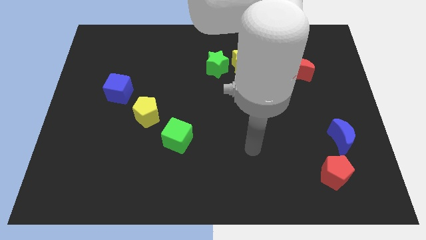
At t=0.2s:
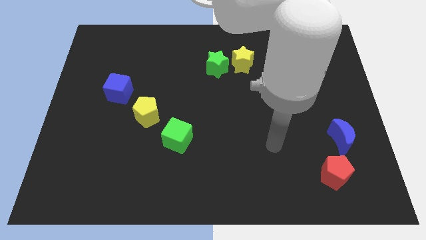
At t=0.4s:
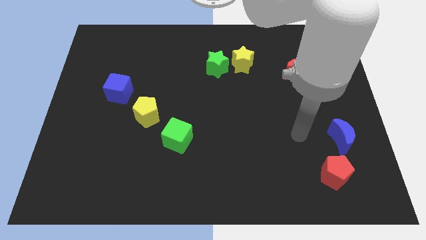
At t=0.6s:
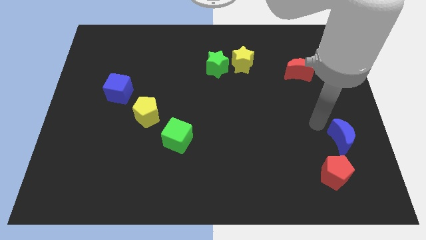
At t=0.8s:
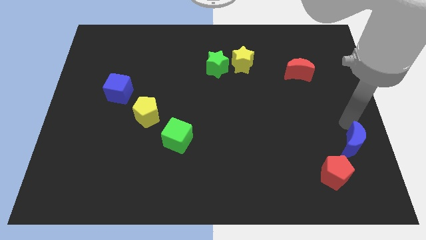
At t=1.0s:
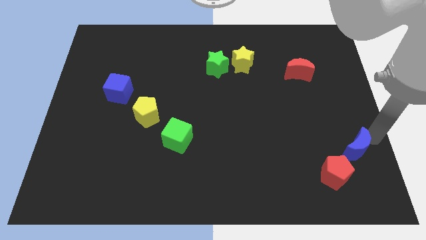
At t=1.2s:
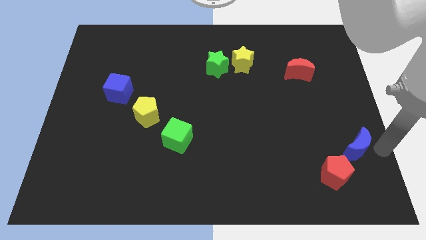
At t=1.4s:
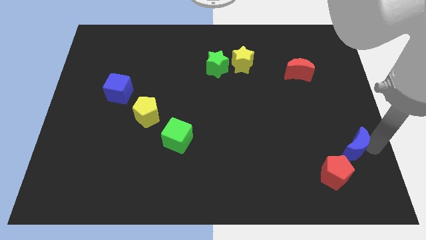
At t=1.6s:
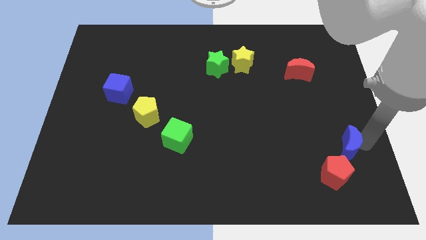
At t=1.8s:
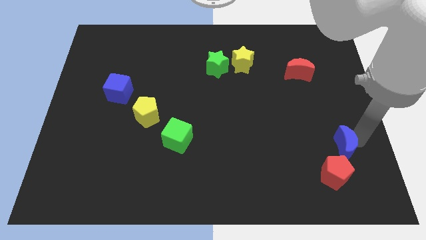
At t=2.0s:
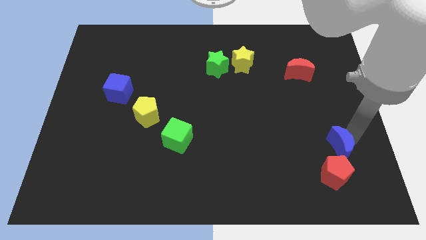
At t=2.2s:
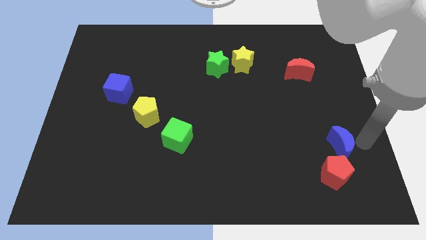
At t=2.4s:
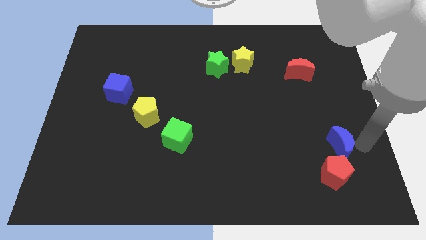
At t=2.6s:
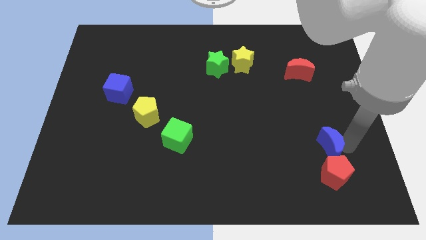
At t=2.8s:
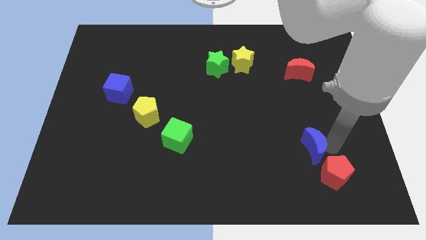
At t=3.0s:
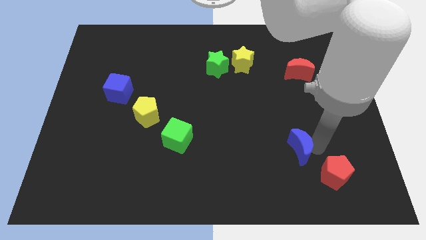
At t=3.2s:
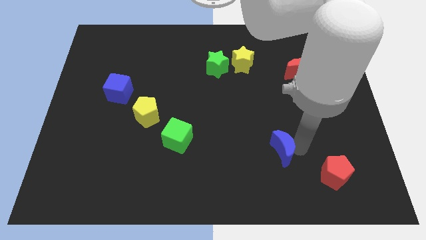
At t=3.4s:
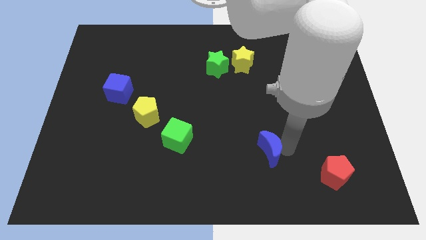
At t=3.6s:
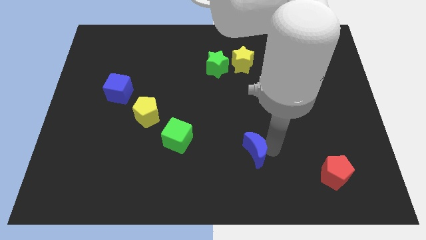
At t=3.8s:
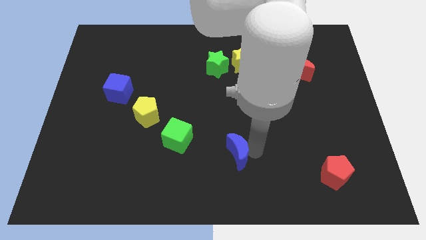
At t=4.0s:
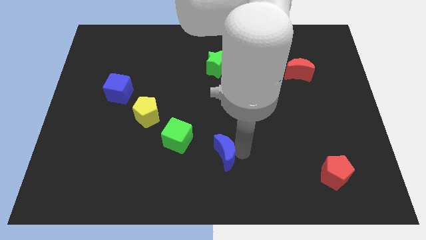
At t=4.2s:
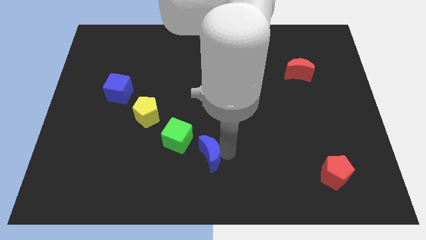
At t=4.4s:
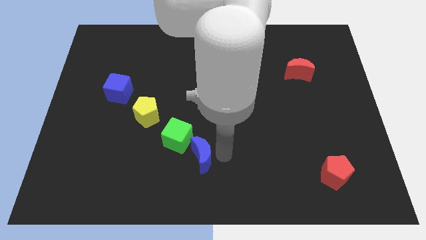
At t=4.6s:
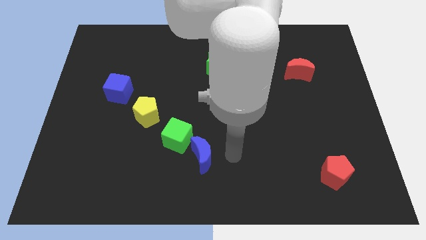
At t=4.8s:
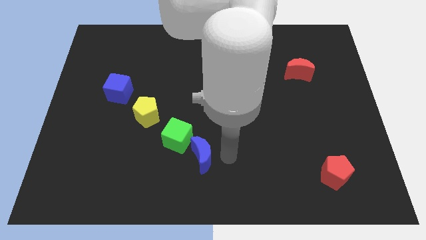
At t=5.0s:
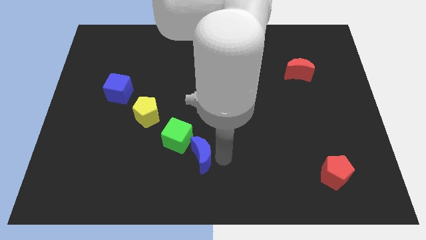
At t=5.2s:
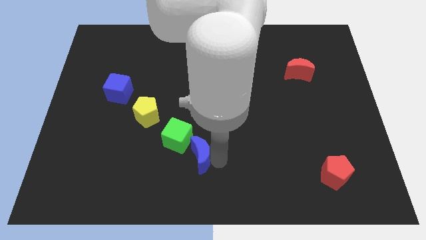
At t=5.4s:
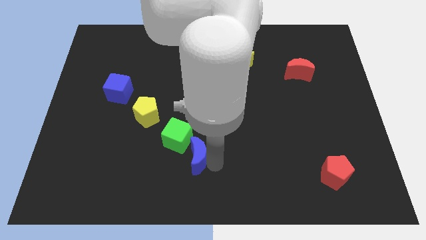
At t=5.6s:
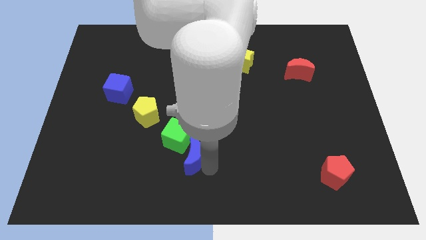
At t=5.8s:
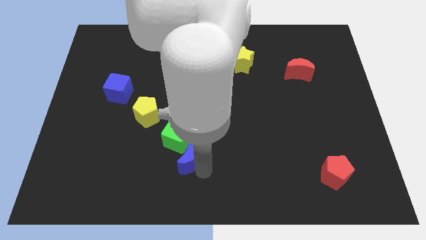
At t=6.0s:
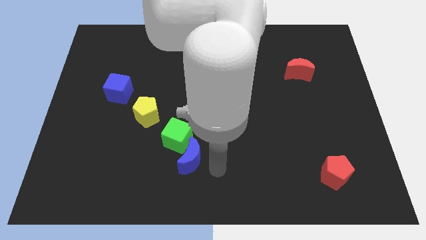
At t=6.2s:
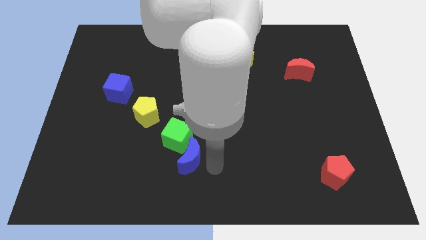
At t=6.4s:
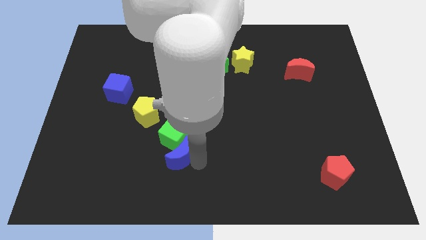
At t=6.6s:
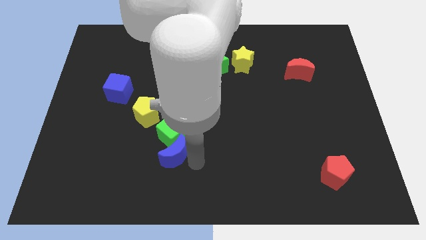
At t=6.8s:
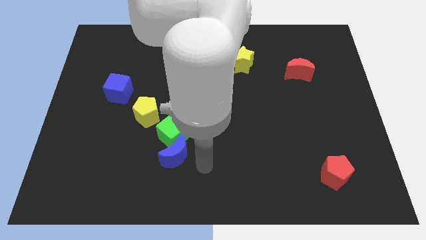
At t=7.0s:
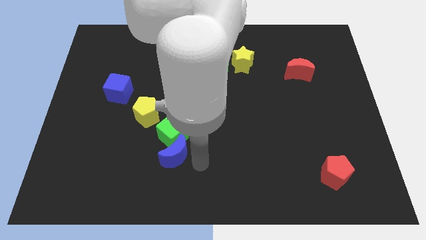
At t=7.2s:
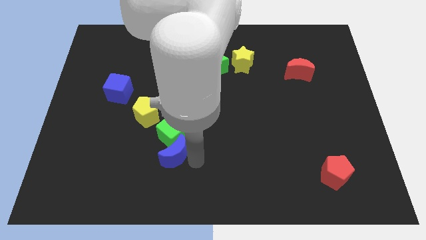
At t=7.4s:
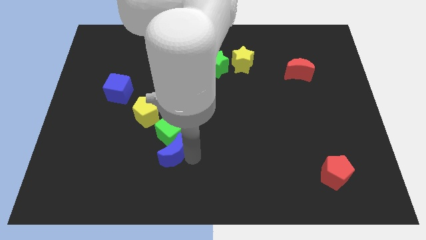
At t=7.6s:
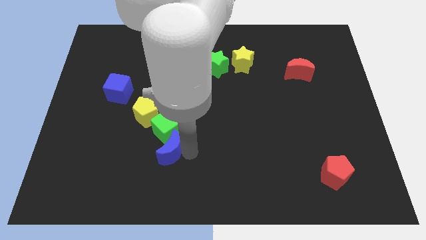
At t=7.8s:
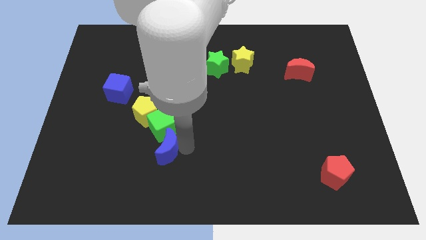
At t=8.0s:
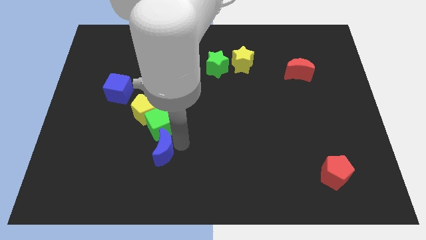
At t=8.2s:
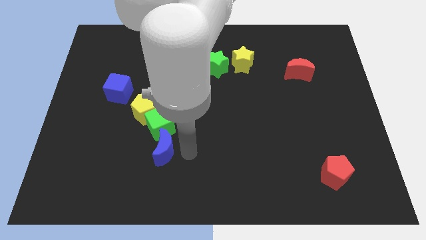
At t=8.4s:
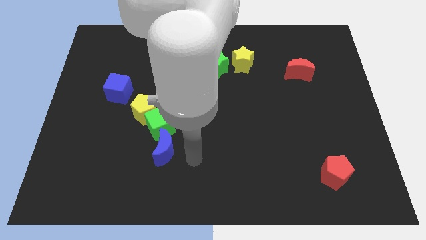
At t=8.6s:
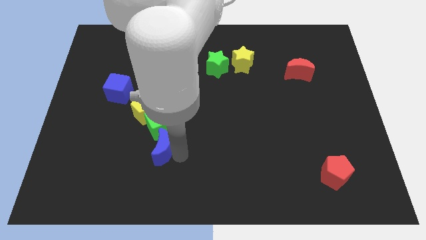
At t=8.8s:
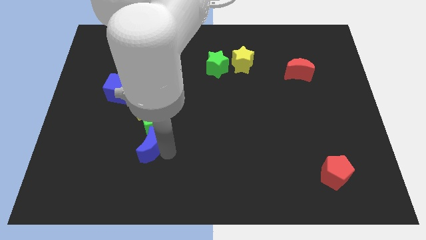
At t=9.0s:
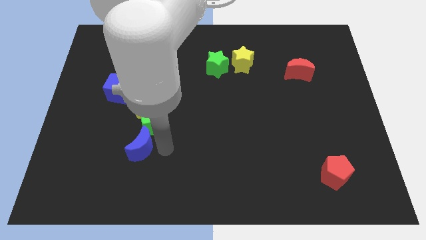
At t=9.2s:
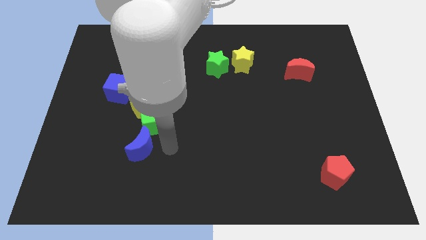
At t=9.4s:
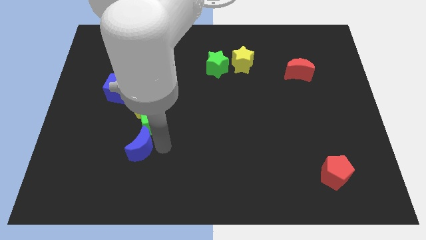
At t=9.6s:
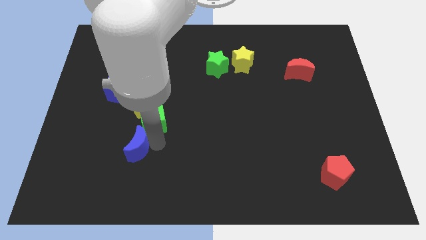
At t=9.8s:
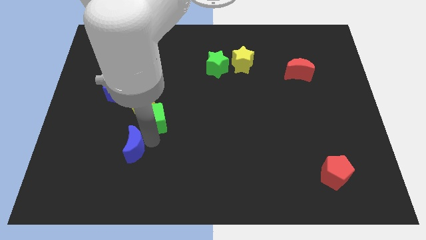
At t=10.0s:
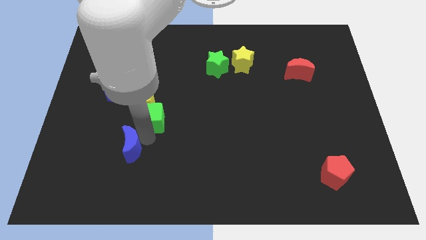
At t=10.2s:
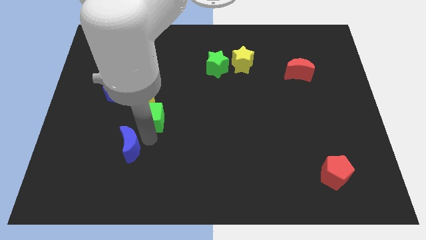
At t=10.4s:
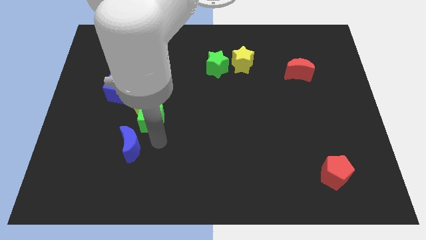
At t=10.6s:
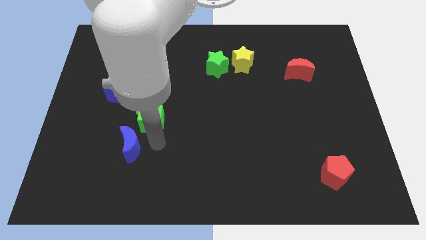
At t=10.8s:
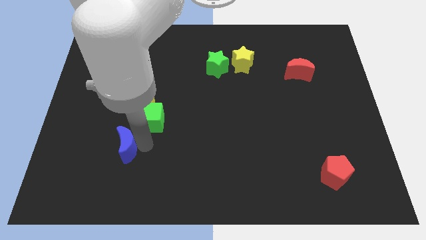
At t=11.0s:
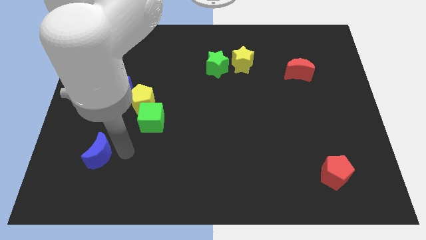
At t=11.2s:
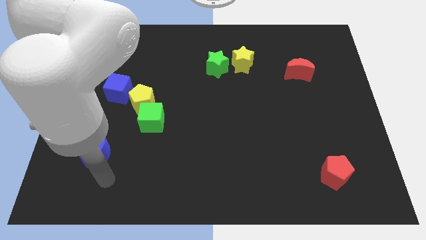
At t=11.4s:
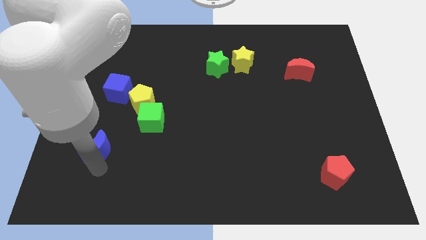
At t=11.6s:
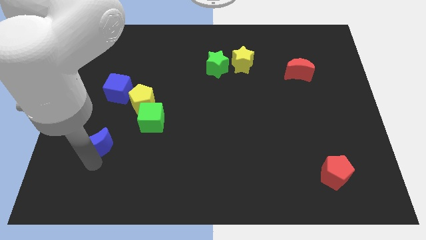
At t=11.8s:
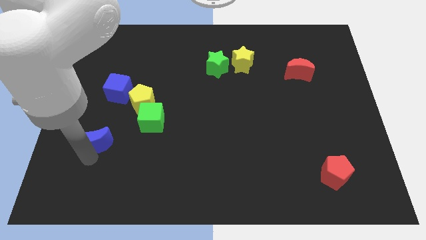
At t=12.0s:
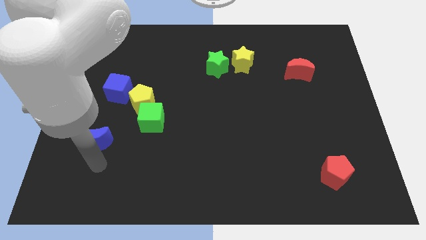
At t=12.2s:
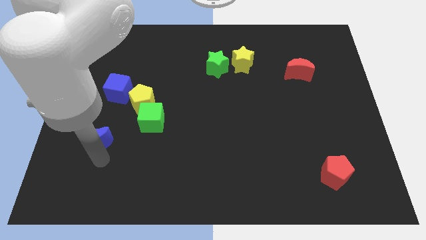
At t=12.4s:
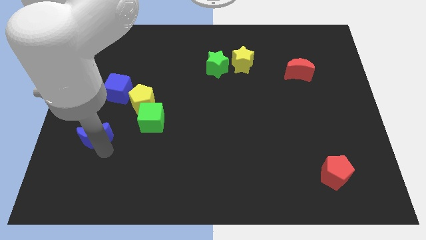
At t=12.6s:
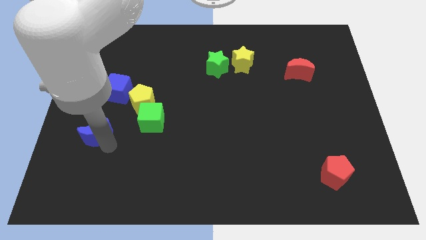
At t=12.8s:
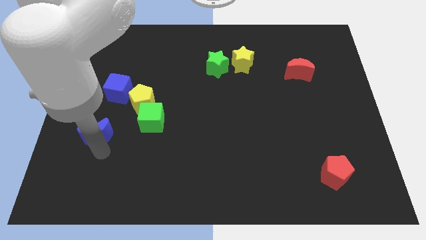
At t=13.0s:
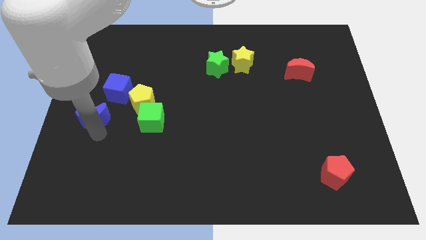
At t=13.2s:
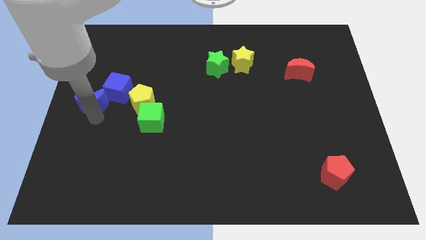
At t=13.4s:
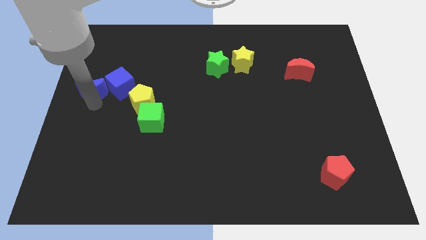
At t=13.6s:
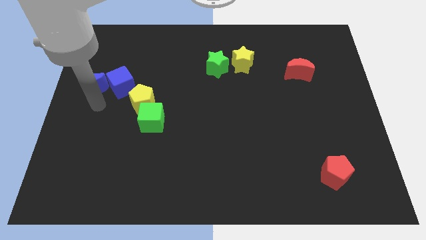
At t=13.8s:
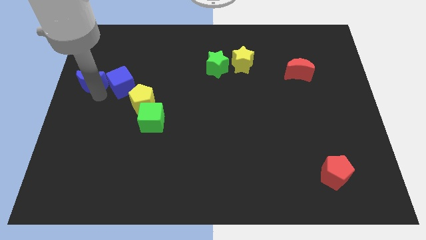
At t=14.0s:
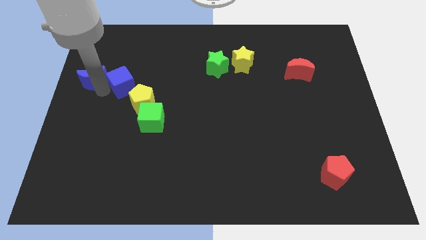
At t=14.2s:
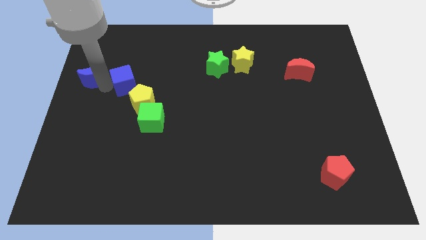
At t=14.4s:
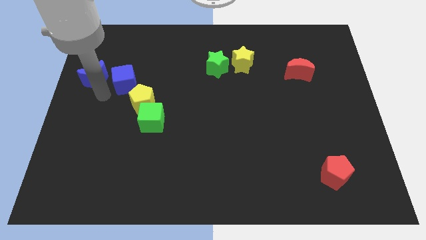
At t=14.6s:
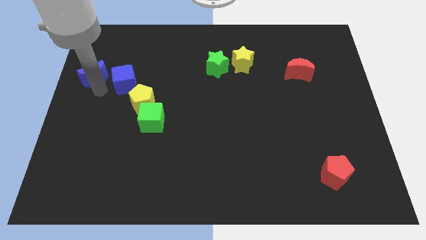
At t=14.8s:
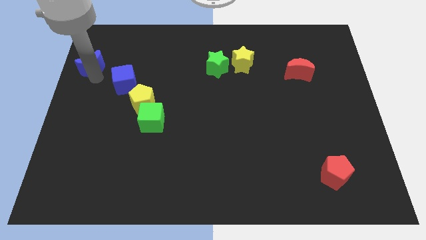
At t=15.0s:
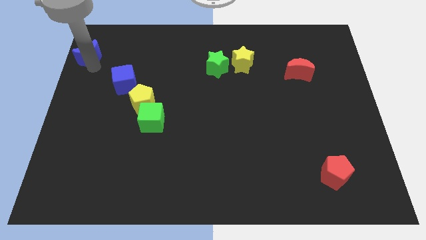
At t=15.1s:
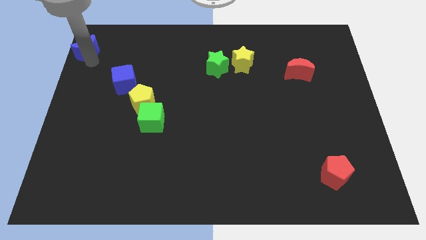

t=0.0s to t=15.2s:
put the blue moon to the top left

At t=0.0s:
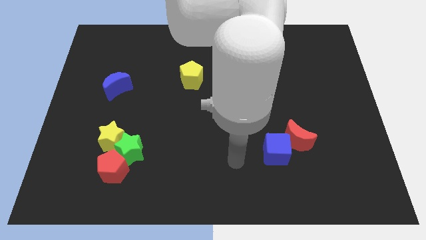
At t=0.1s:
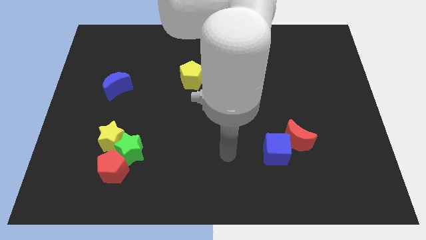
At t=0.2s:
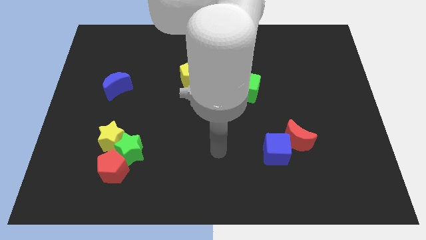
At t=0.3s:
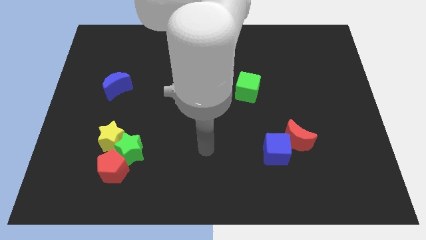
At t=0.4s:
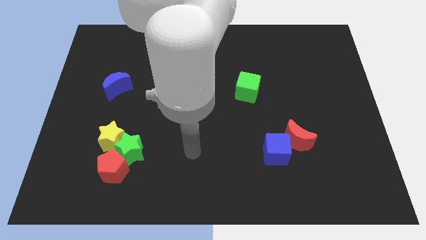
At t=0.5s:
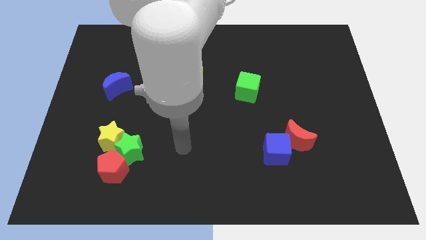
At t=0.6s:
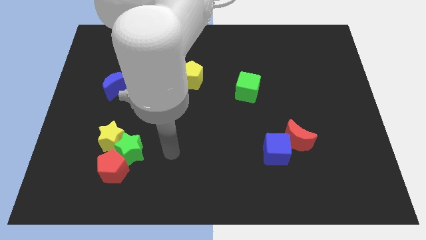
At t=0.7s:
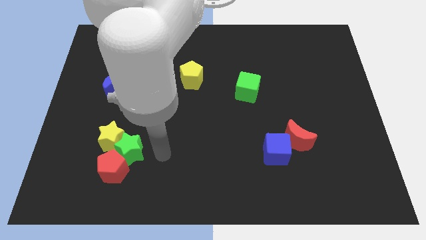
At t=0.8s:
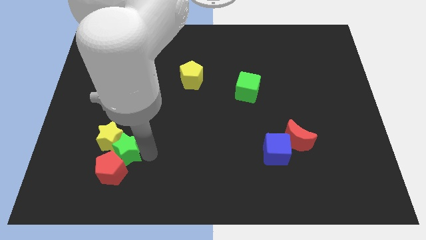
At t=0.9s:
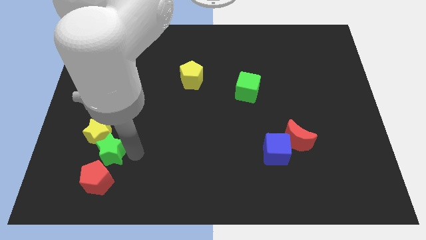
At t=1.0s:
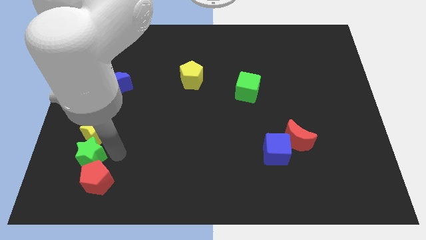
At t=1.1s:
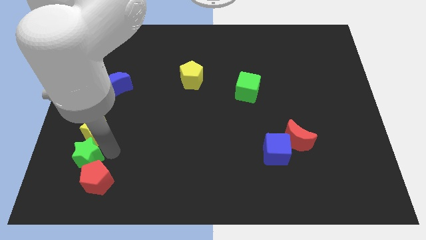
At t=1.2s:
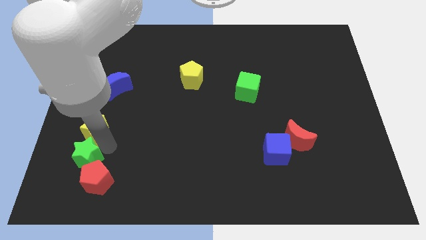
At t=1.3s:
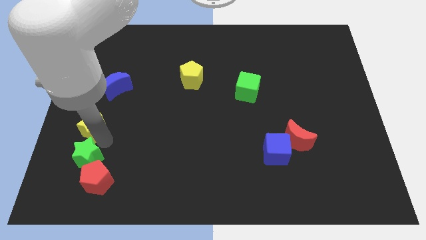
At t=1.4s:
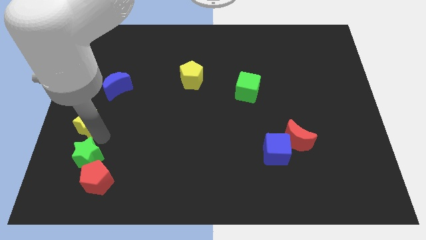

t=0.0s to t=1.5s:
slide the yellow star to the left side
